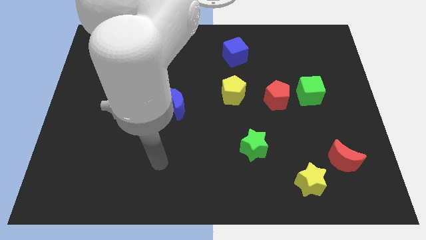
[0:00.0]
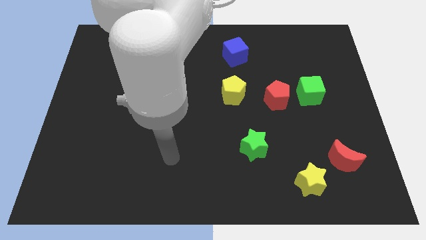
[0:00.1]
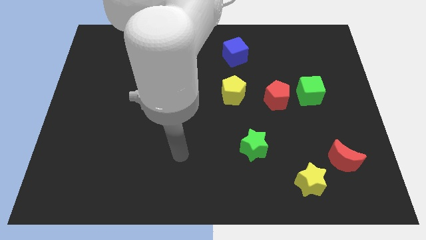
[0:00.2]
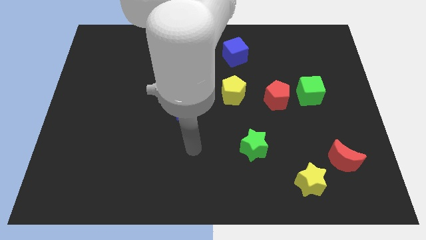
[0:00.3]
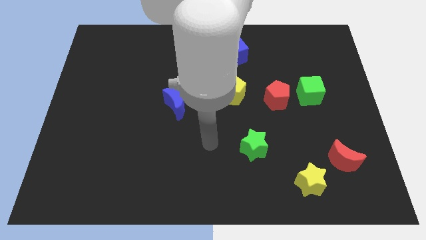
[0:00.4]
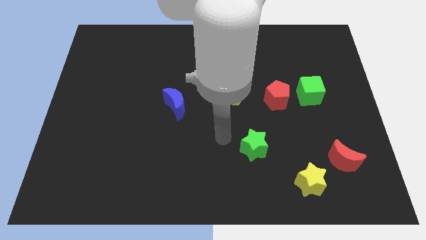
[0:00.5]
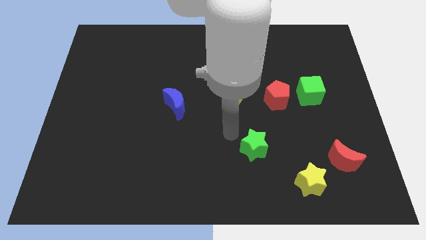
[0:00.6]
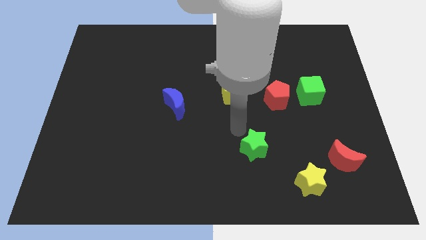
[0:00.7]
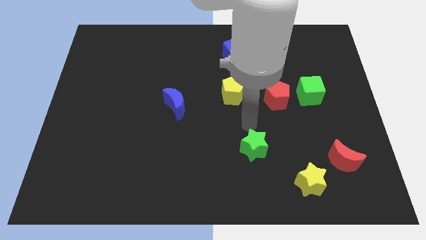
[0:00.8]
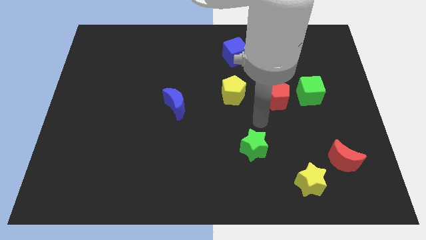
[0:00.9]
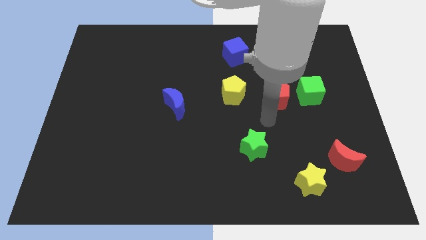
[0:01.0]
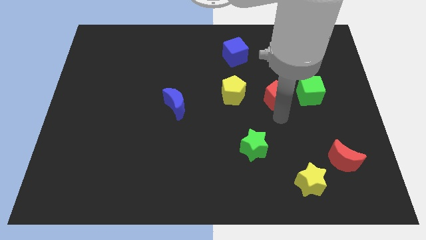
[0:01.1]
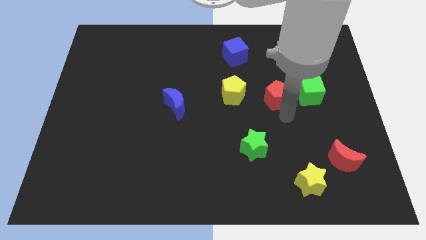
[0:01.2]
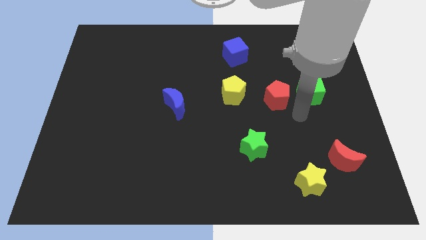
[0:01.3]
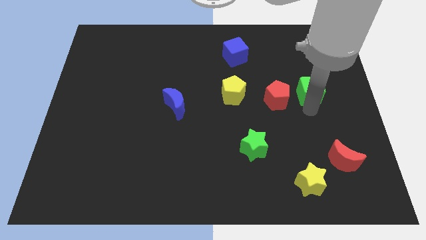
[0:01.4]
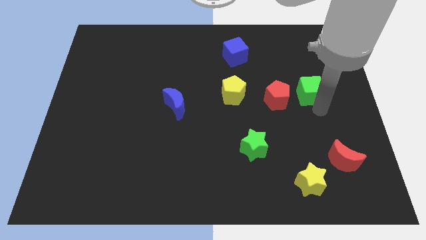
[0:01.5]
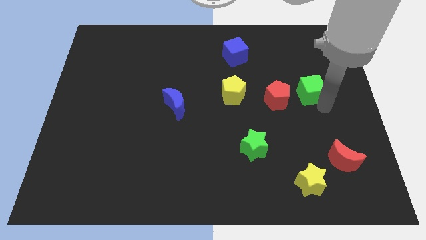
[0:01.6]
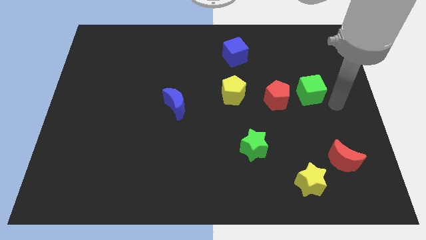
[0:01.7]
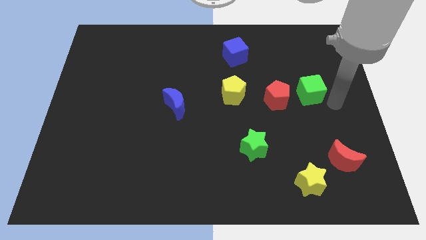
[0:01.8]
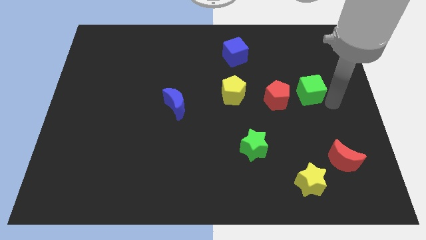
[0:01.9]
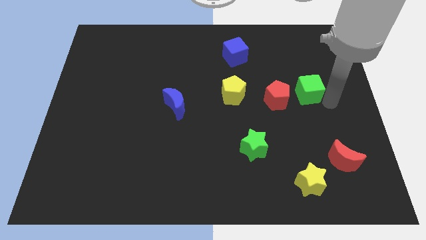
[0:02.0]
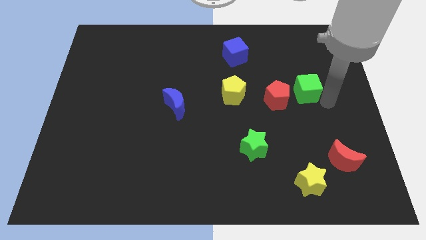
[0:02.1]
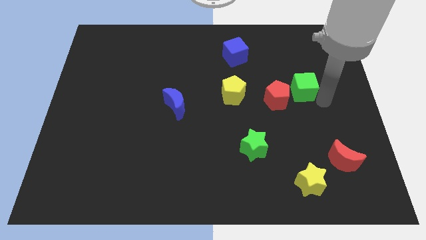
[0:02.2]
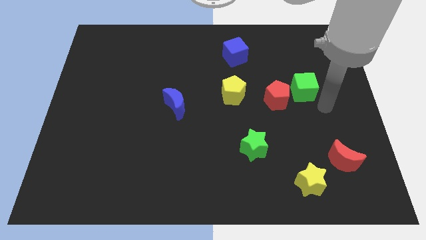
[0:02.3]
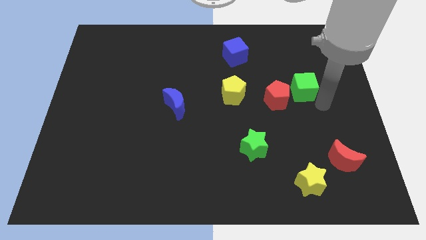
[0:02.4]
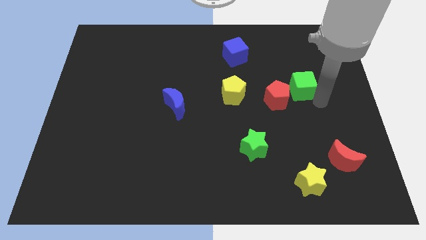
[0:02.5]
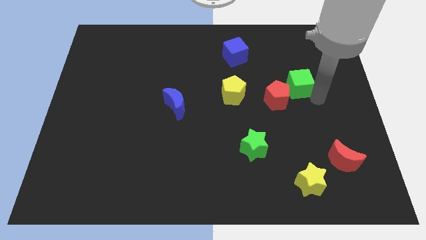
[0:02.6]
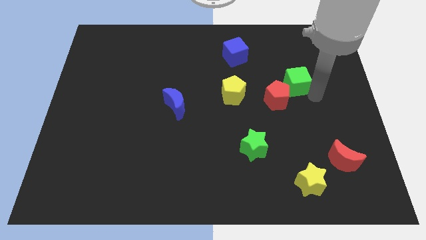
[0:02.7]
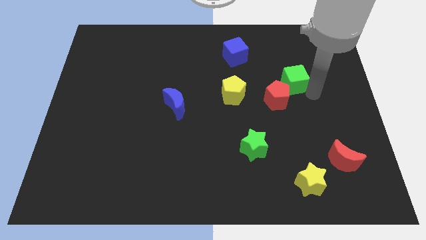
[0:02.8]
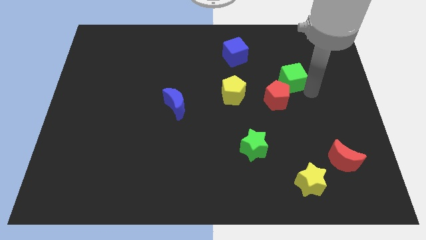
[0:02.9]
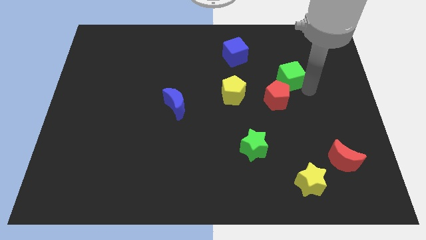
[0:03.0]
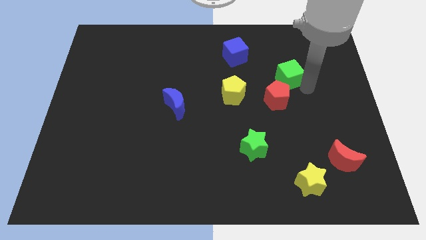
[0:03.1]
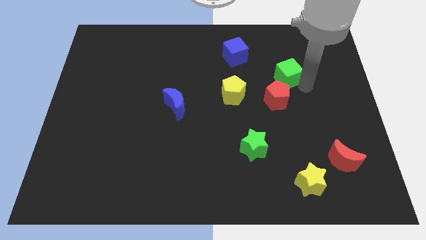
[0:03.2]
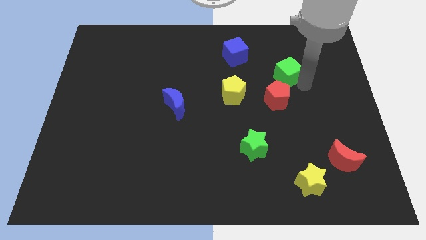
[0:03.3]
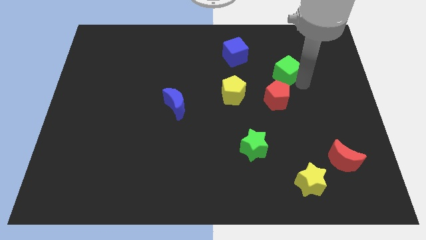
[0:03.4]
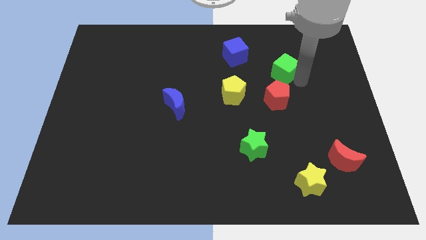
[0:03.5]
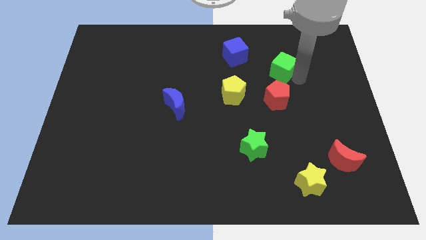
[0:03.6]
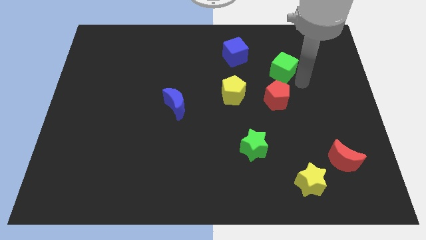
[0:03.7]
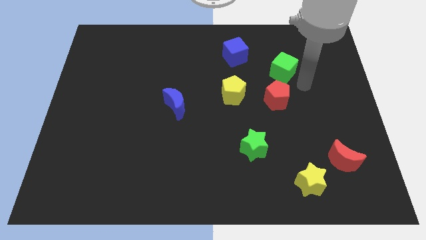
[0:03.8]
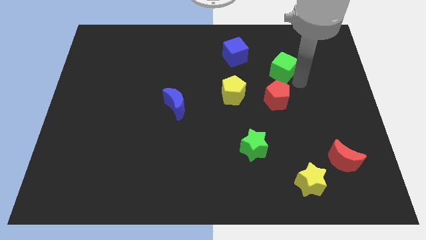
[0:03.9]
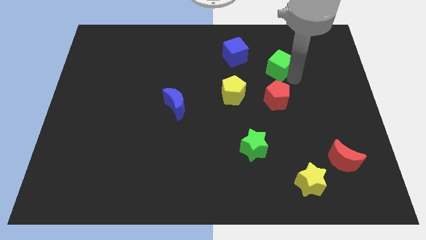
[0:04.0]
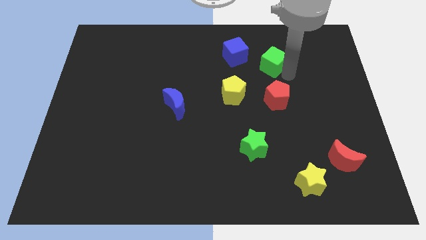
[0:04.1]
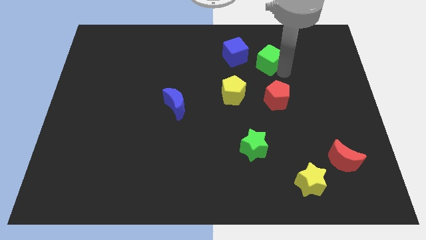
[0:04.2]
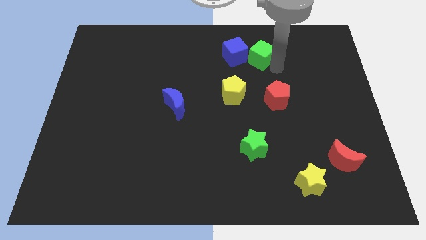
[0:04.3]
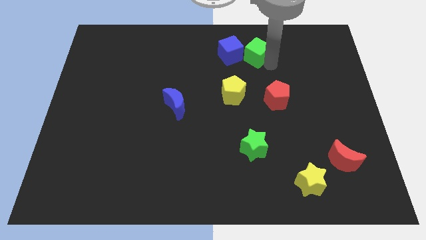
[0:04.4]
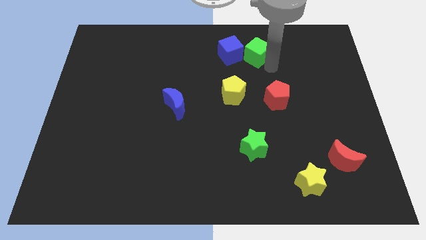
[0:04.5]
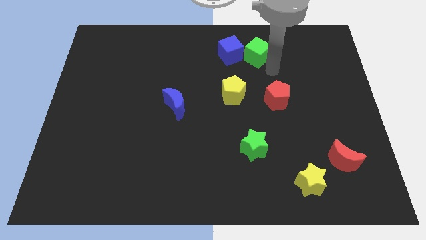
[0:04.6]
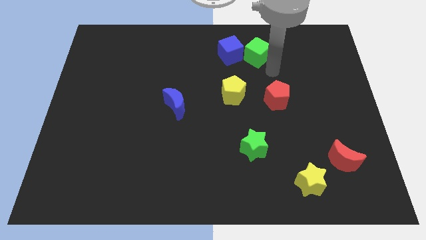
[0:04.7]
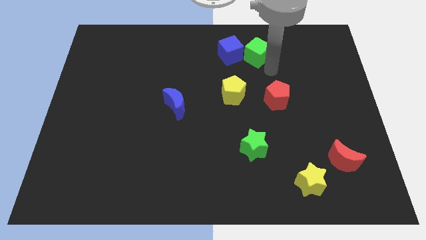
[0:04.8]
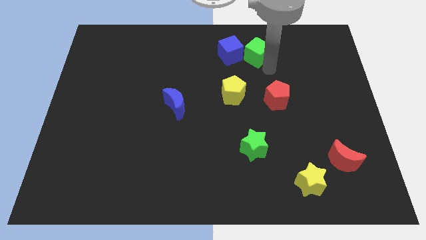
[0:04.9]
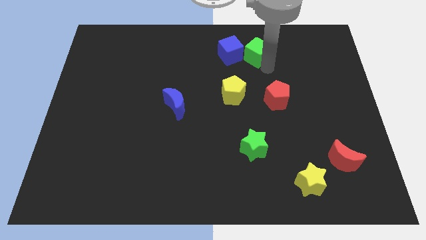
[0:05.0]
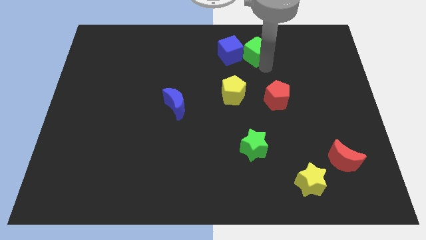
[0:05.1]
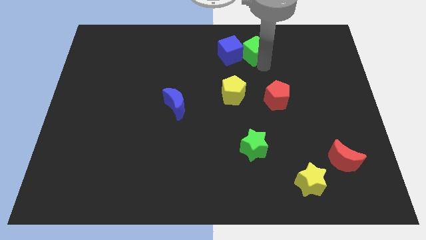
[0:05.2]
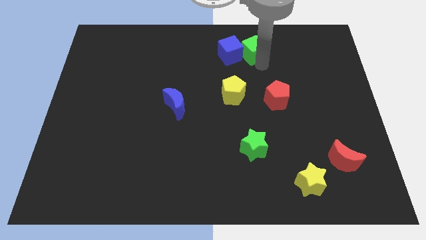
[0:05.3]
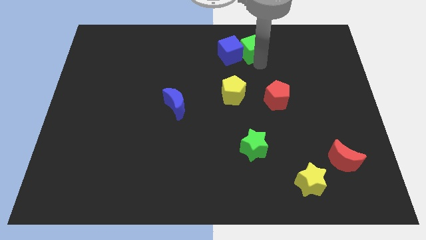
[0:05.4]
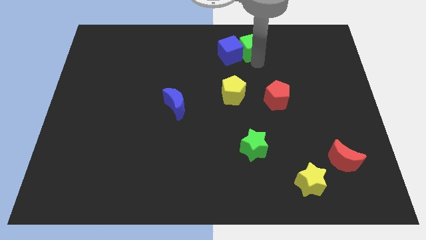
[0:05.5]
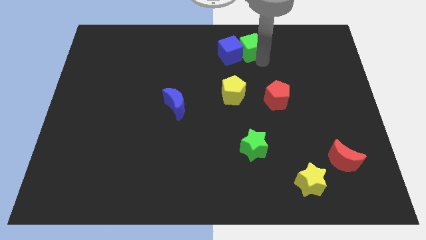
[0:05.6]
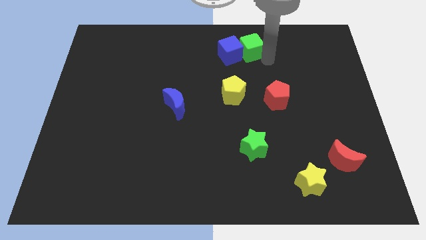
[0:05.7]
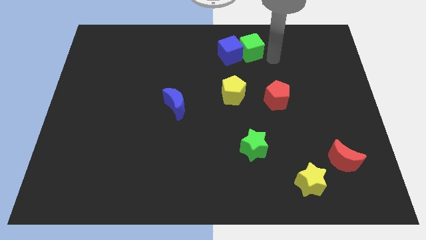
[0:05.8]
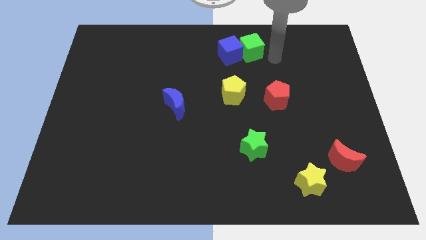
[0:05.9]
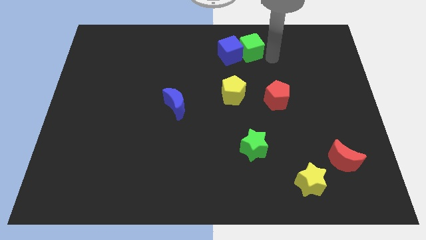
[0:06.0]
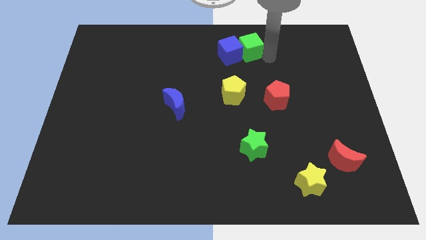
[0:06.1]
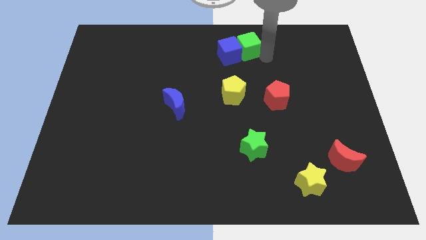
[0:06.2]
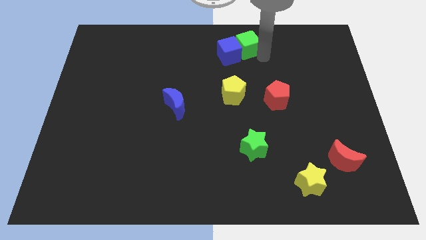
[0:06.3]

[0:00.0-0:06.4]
slide the green cube to the top side
